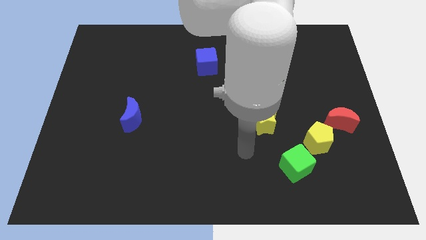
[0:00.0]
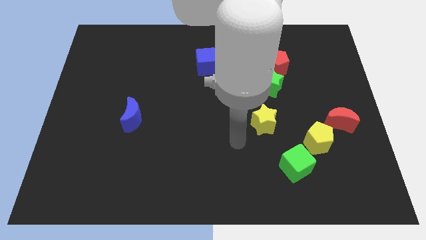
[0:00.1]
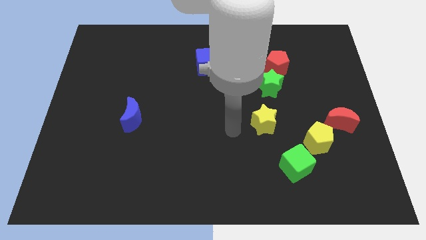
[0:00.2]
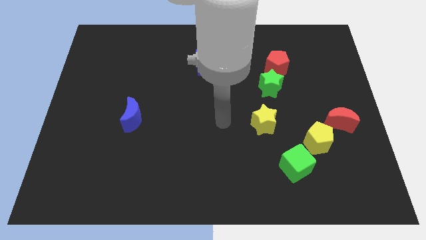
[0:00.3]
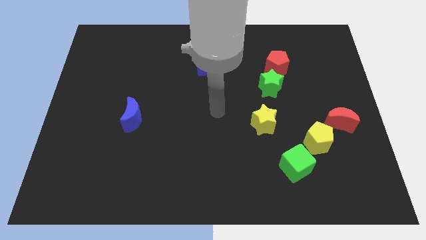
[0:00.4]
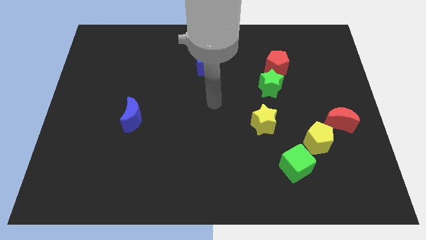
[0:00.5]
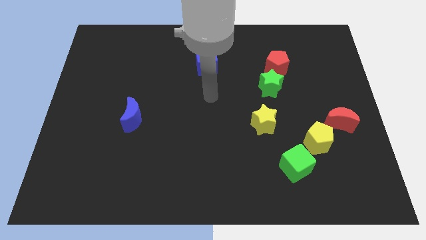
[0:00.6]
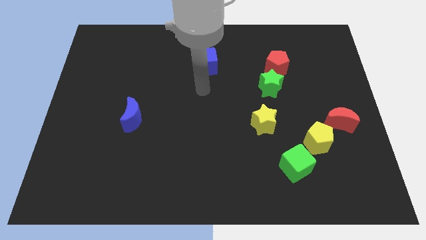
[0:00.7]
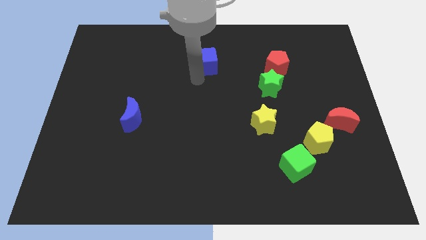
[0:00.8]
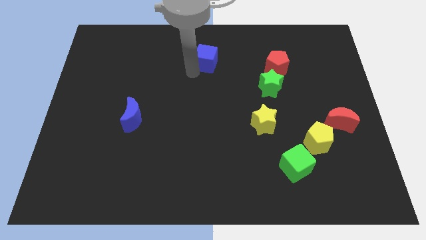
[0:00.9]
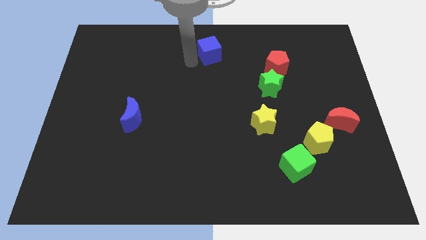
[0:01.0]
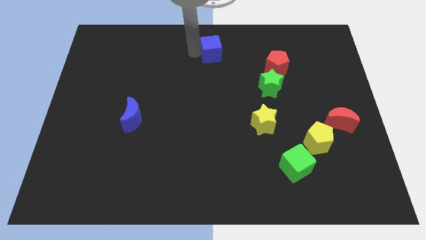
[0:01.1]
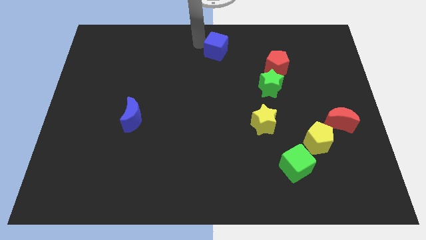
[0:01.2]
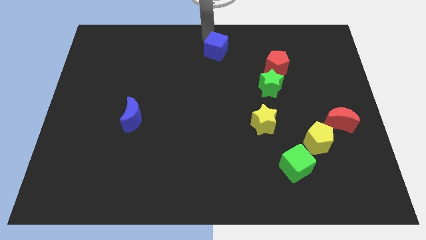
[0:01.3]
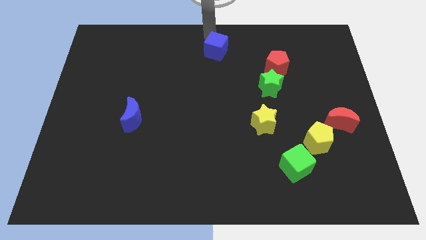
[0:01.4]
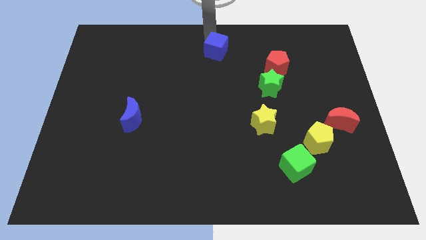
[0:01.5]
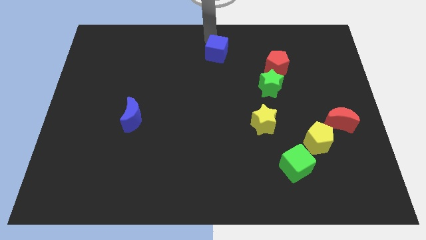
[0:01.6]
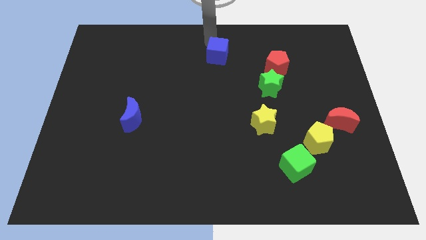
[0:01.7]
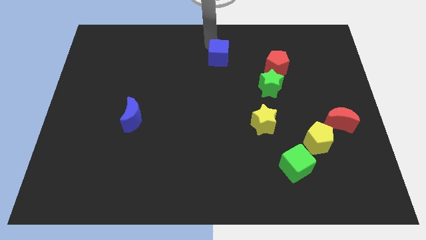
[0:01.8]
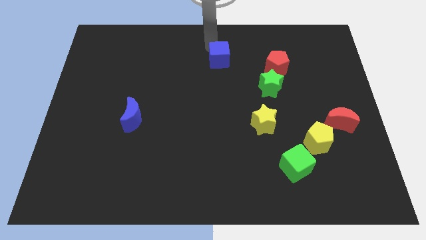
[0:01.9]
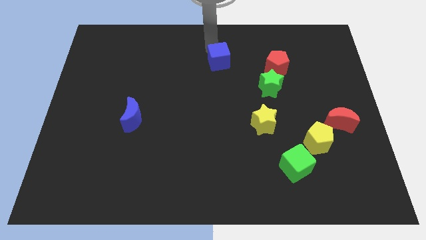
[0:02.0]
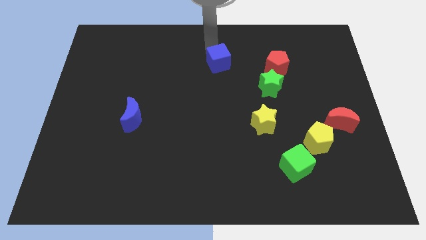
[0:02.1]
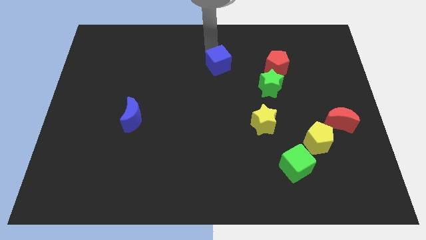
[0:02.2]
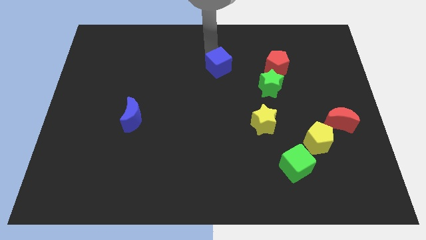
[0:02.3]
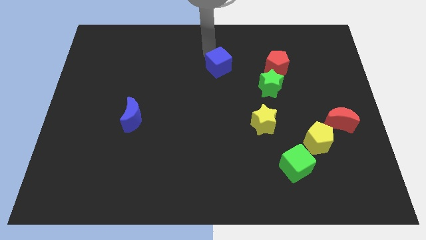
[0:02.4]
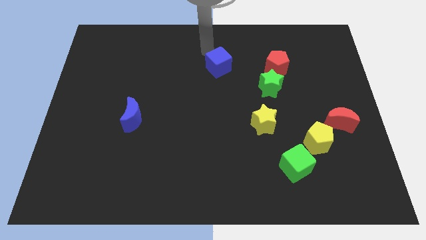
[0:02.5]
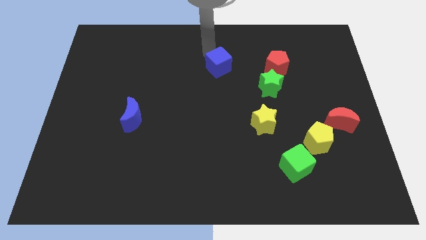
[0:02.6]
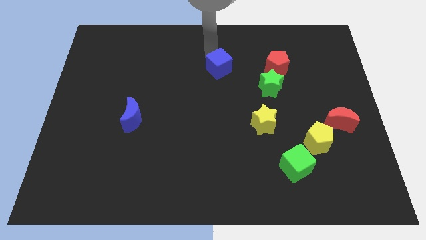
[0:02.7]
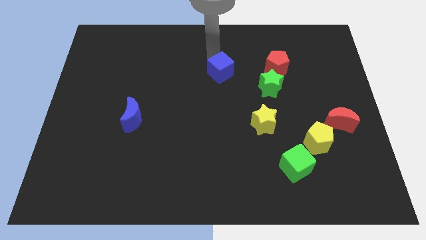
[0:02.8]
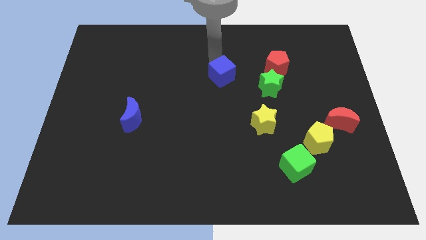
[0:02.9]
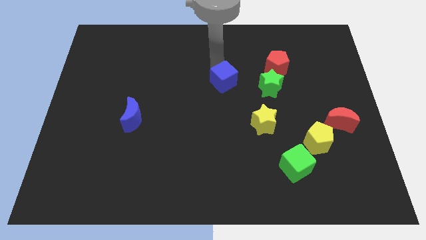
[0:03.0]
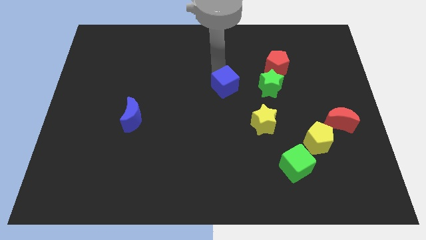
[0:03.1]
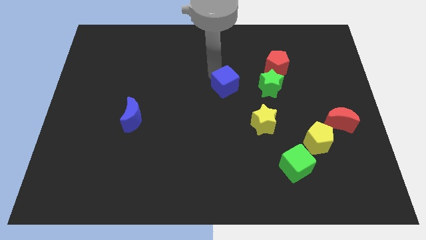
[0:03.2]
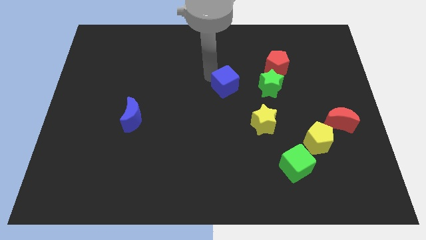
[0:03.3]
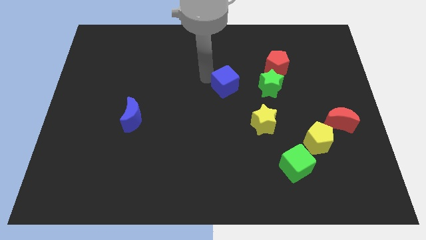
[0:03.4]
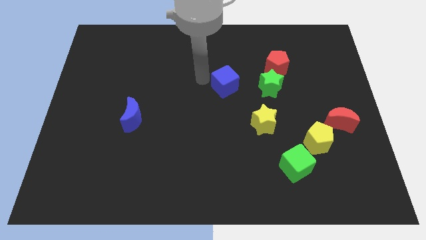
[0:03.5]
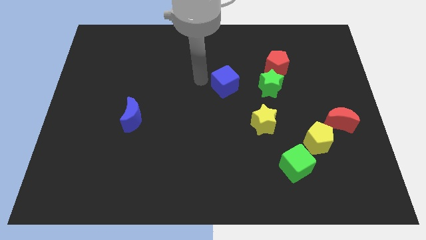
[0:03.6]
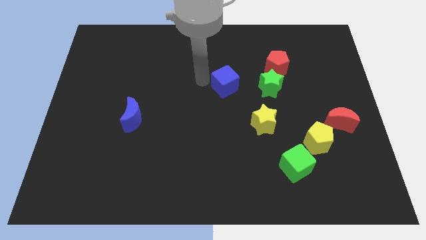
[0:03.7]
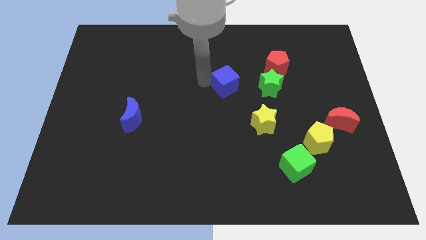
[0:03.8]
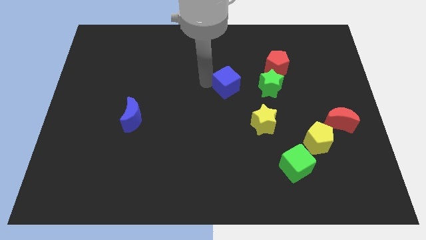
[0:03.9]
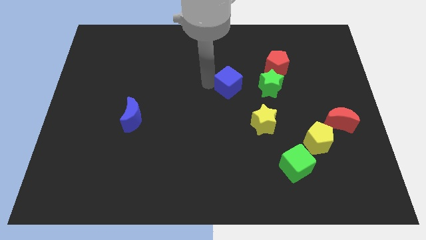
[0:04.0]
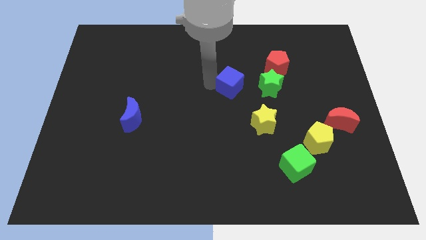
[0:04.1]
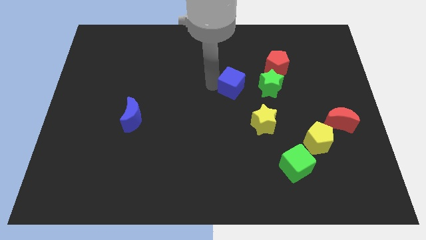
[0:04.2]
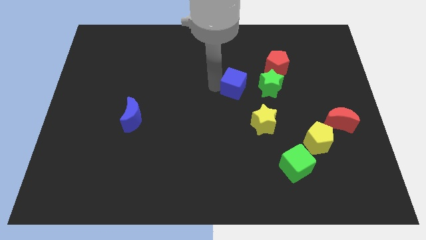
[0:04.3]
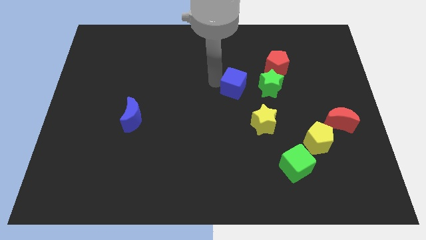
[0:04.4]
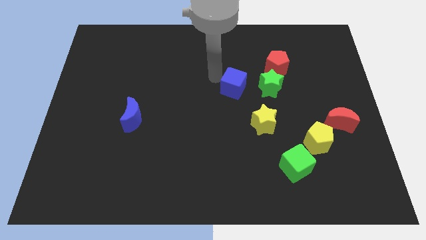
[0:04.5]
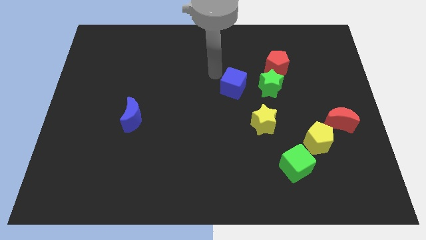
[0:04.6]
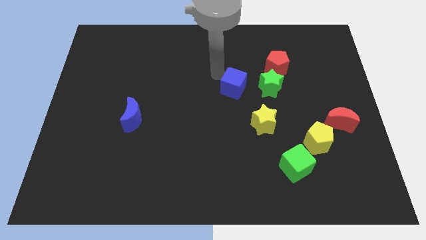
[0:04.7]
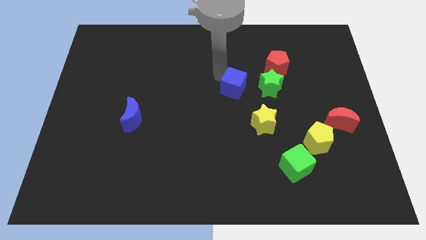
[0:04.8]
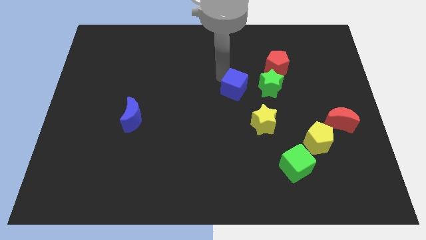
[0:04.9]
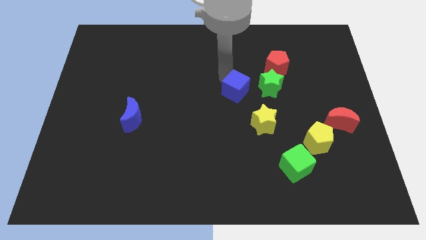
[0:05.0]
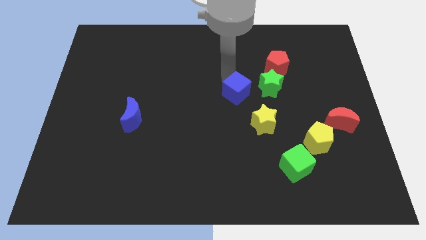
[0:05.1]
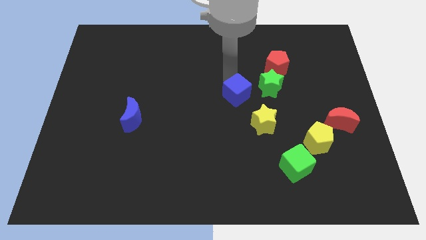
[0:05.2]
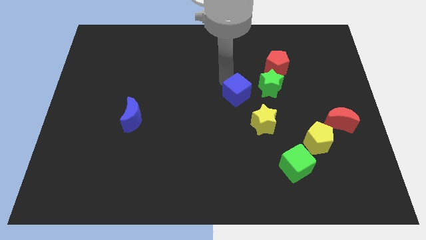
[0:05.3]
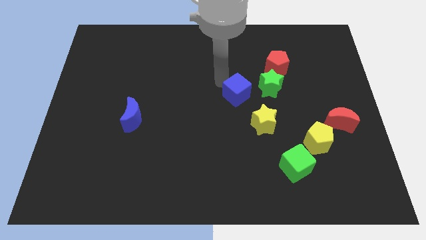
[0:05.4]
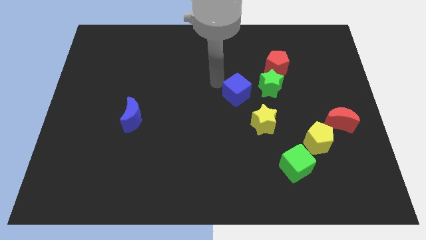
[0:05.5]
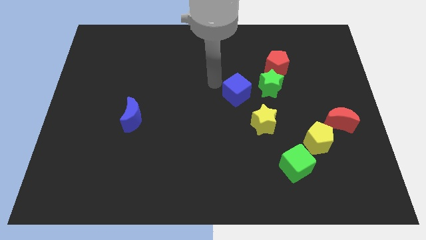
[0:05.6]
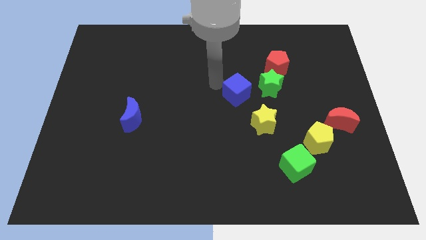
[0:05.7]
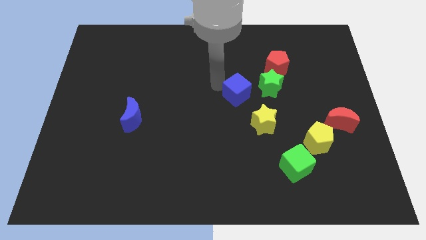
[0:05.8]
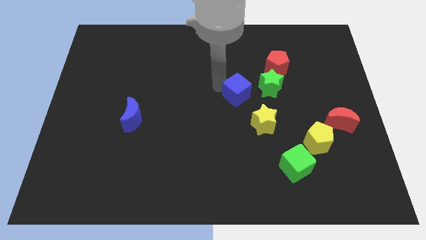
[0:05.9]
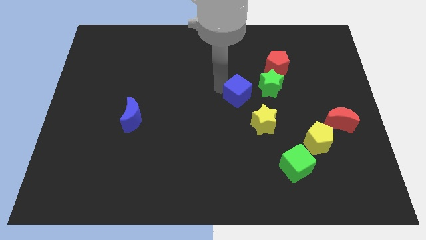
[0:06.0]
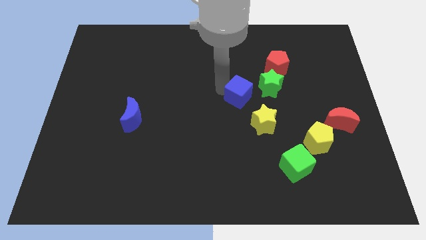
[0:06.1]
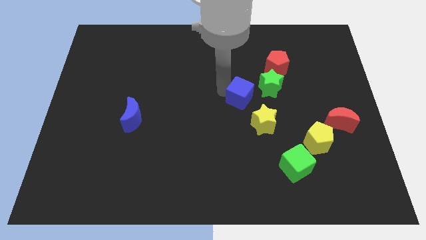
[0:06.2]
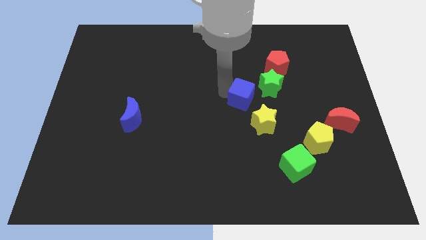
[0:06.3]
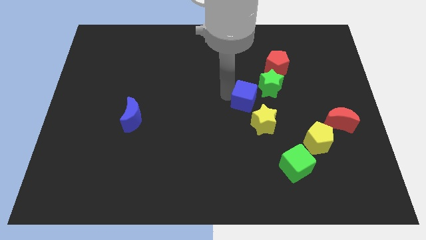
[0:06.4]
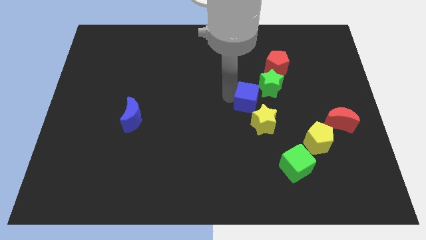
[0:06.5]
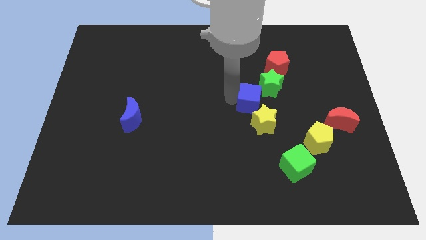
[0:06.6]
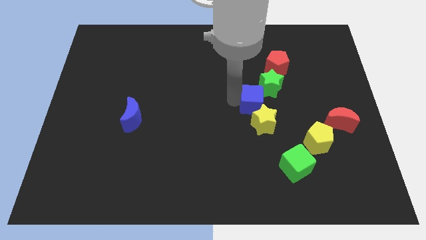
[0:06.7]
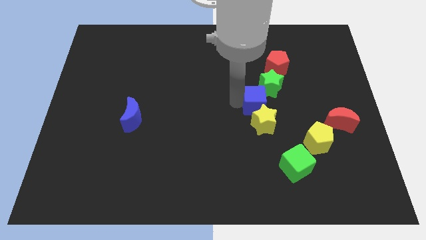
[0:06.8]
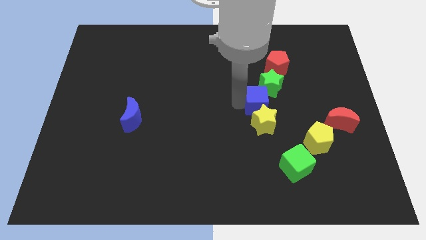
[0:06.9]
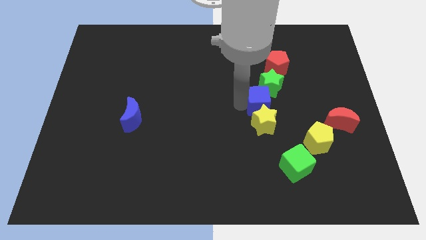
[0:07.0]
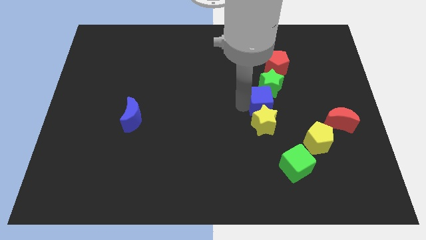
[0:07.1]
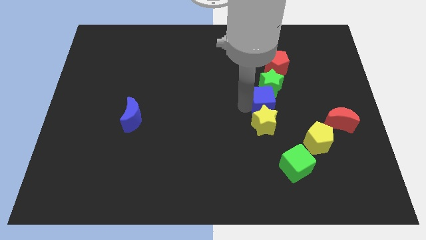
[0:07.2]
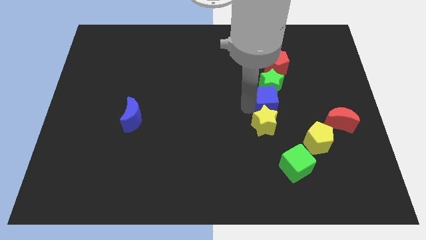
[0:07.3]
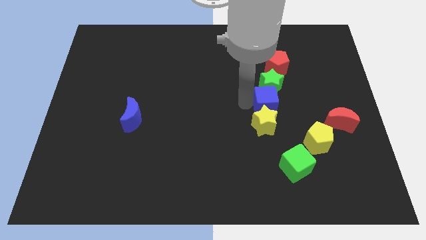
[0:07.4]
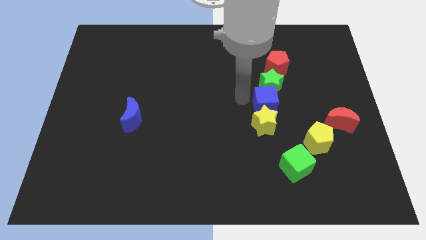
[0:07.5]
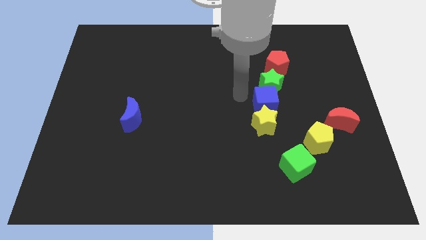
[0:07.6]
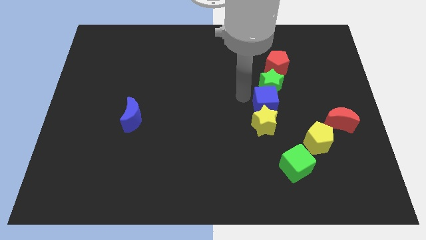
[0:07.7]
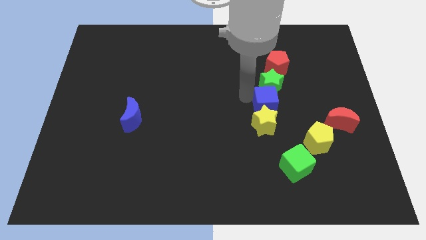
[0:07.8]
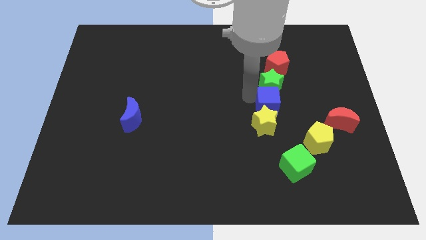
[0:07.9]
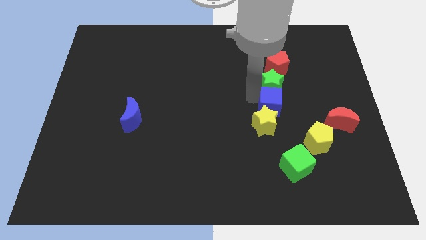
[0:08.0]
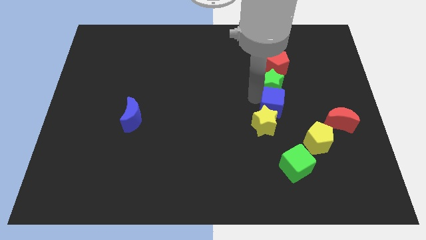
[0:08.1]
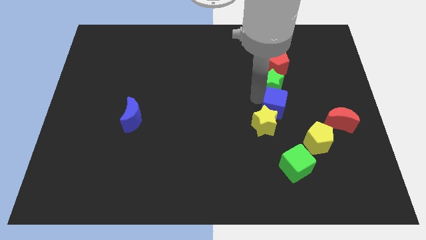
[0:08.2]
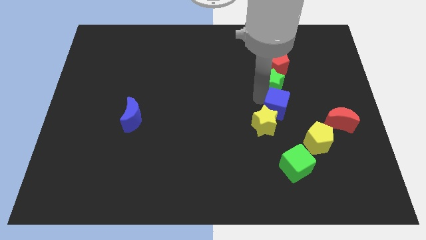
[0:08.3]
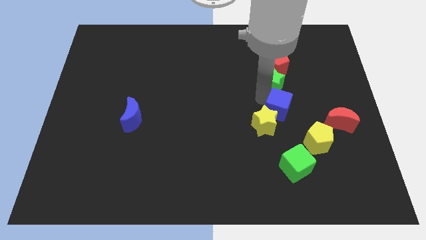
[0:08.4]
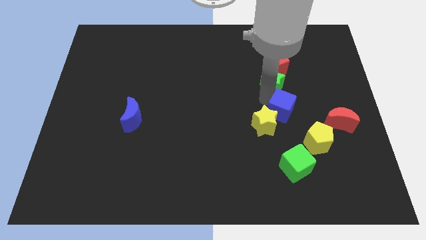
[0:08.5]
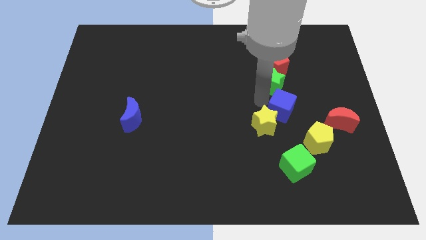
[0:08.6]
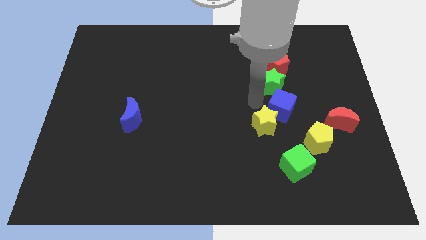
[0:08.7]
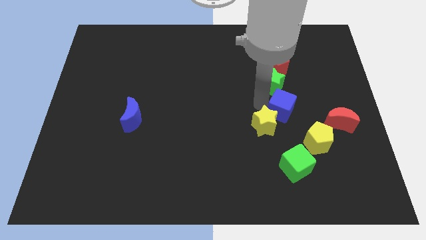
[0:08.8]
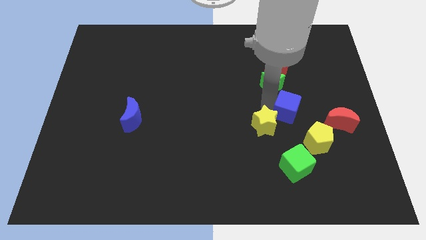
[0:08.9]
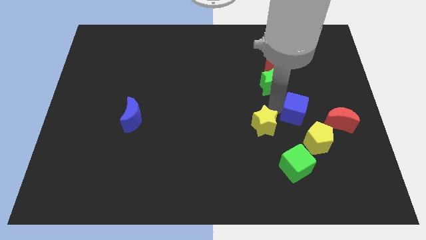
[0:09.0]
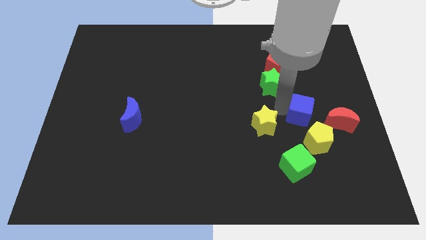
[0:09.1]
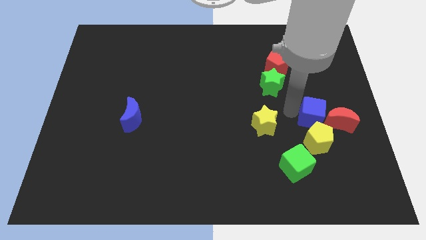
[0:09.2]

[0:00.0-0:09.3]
put the blue cube to the red moon
